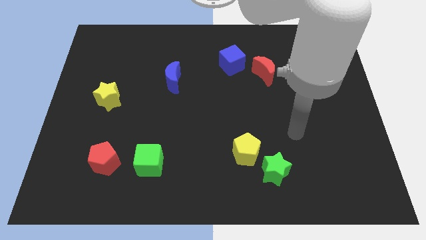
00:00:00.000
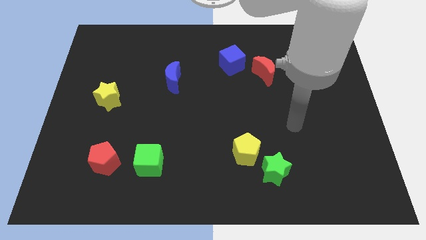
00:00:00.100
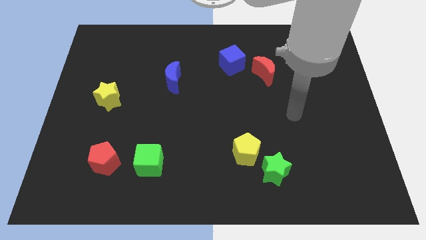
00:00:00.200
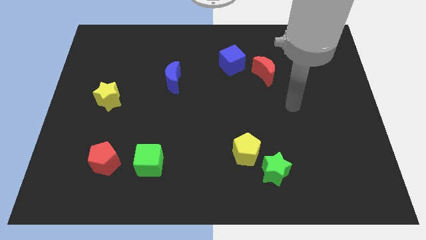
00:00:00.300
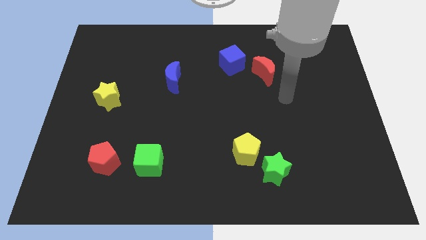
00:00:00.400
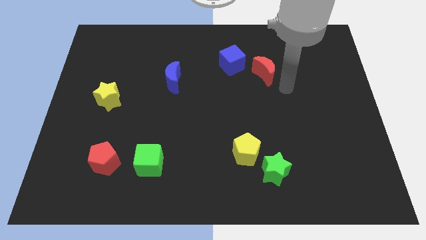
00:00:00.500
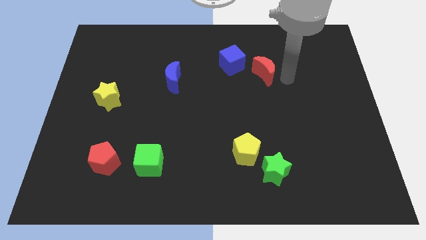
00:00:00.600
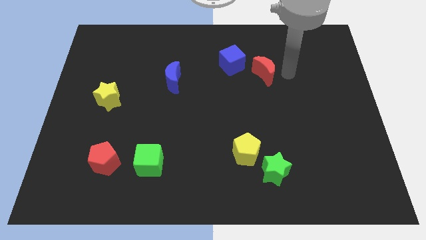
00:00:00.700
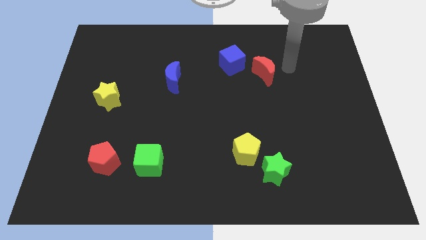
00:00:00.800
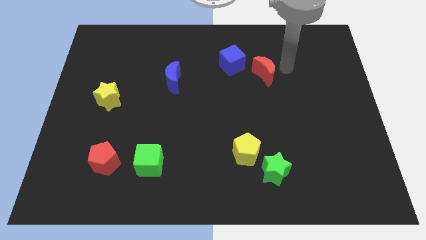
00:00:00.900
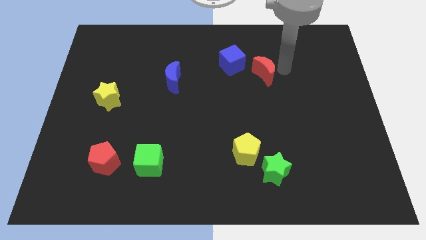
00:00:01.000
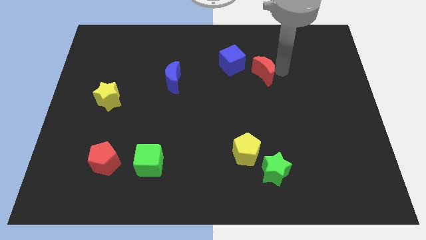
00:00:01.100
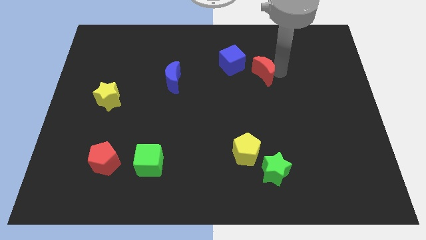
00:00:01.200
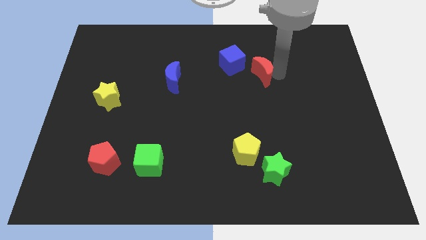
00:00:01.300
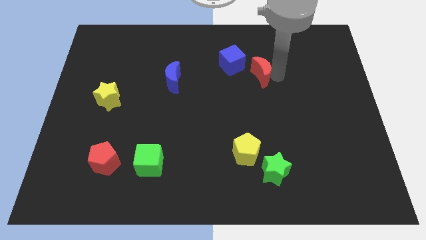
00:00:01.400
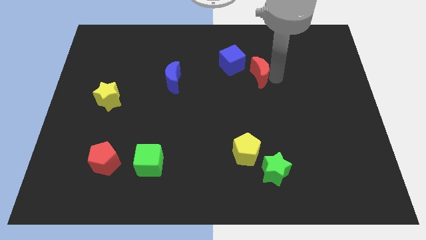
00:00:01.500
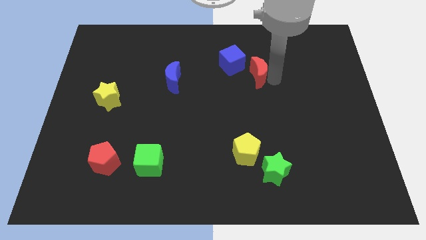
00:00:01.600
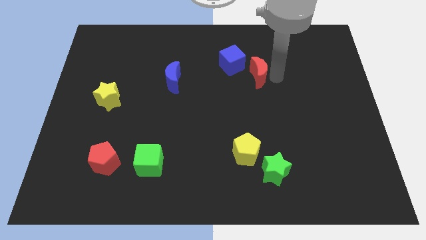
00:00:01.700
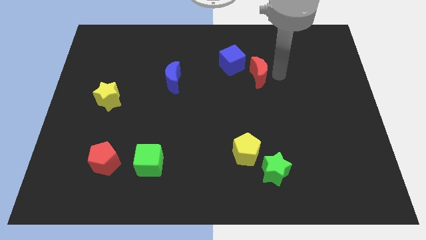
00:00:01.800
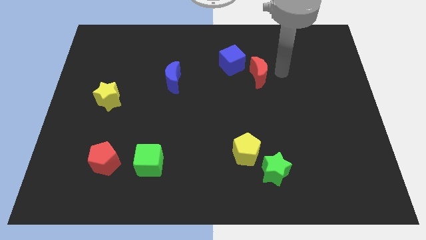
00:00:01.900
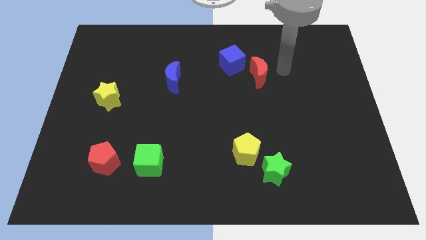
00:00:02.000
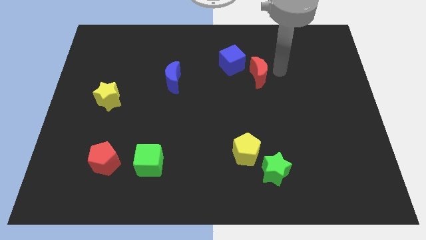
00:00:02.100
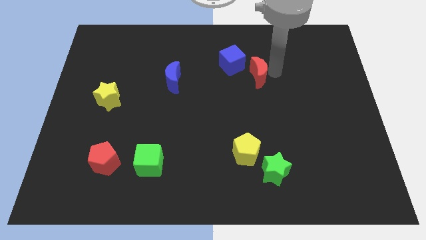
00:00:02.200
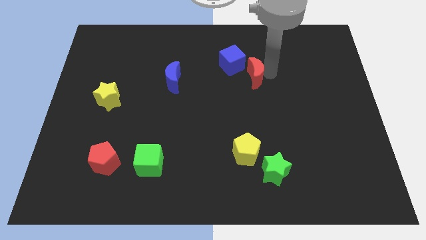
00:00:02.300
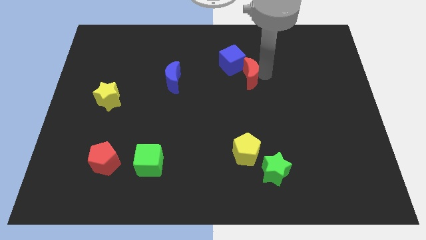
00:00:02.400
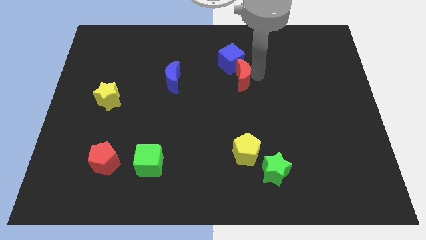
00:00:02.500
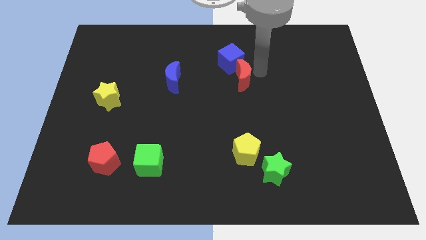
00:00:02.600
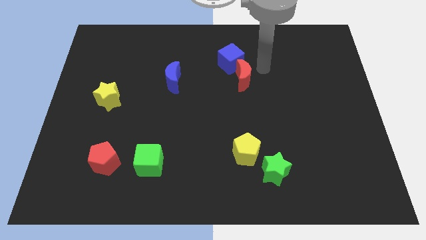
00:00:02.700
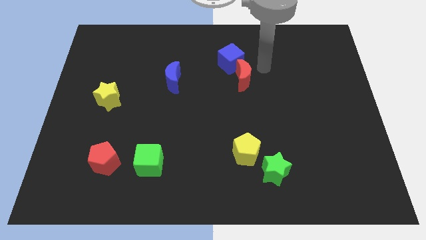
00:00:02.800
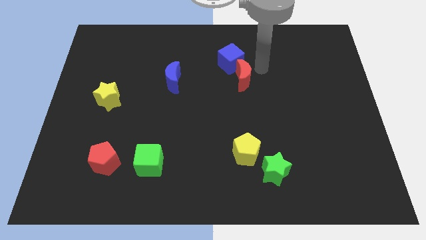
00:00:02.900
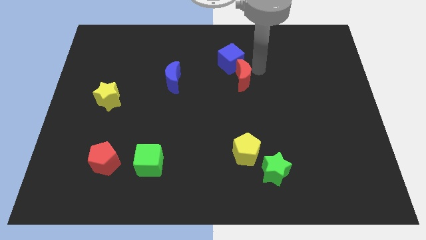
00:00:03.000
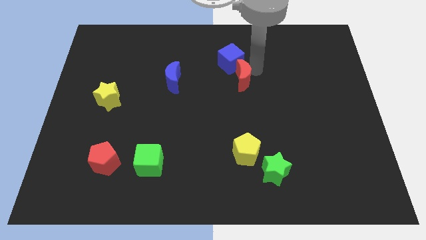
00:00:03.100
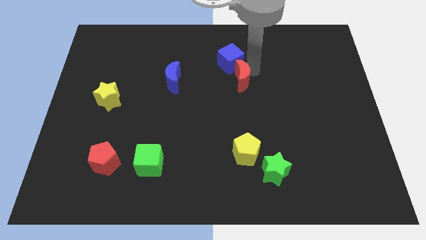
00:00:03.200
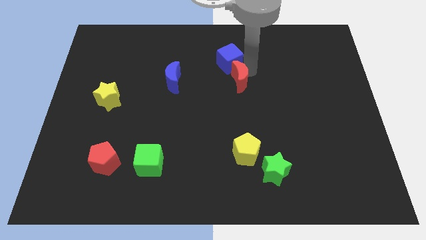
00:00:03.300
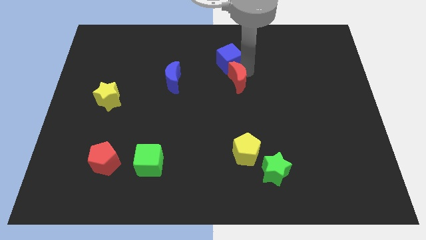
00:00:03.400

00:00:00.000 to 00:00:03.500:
slightly move the red moon to the left

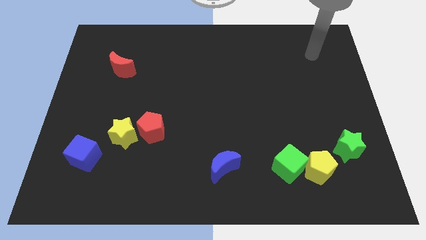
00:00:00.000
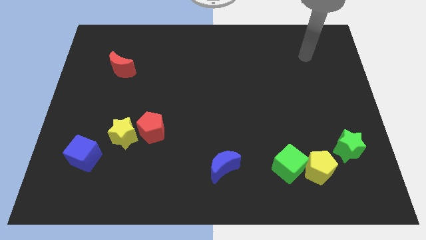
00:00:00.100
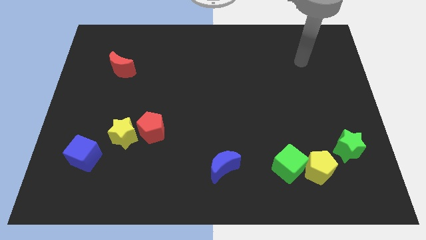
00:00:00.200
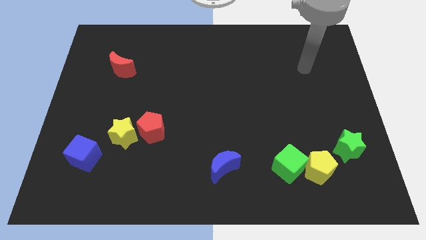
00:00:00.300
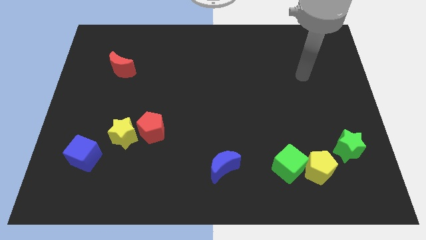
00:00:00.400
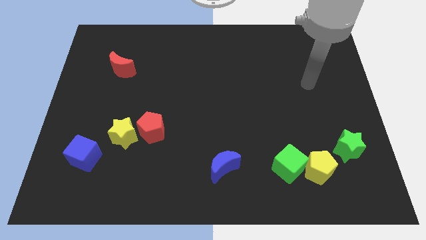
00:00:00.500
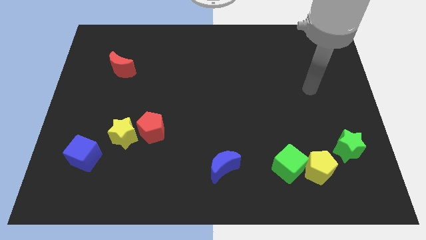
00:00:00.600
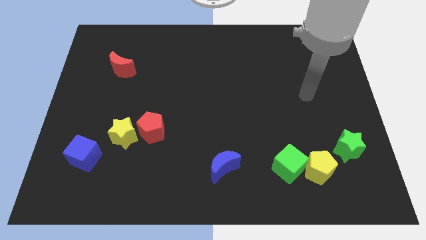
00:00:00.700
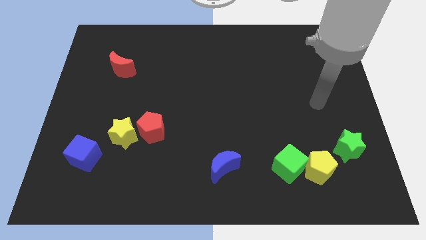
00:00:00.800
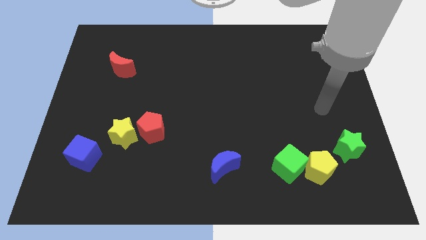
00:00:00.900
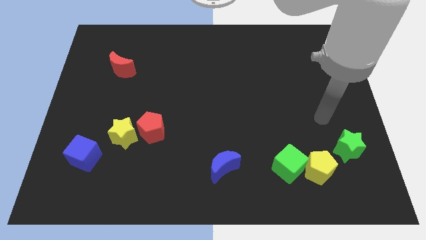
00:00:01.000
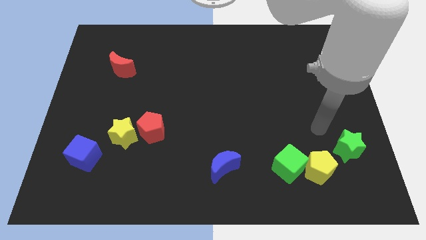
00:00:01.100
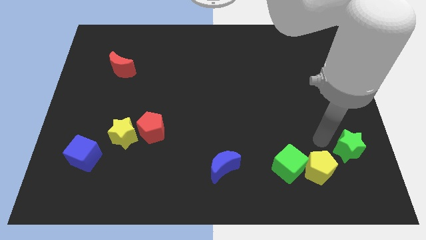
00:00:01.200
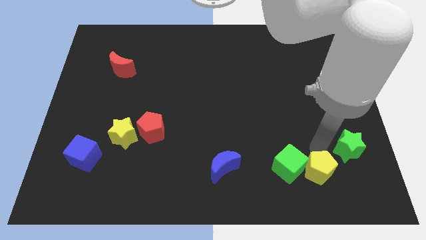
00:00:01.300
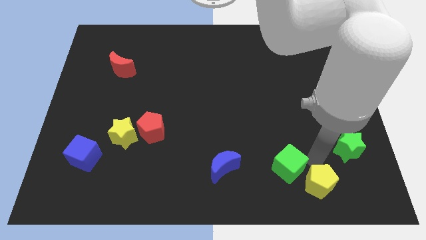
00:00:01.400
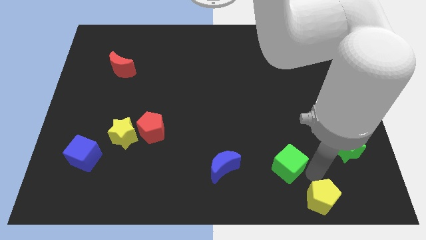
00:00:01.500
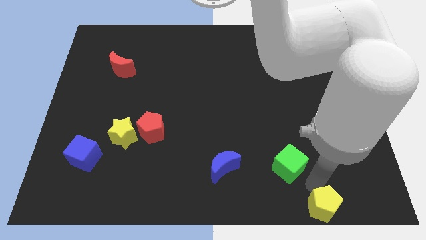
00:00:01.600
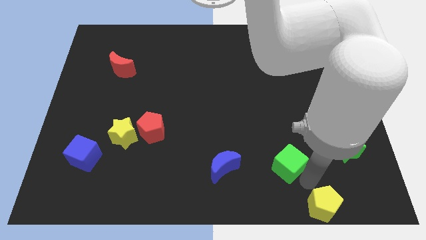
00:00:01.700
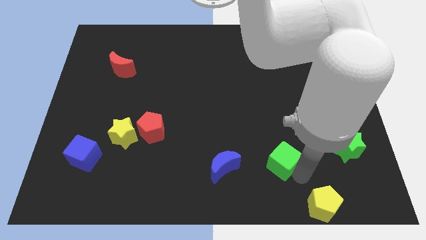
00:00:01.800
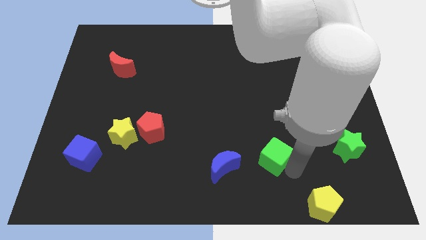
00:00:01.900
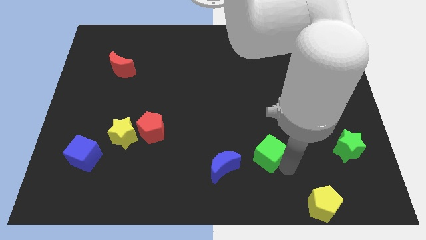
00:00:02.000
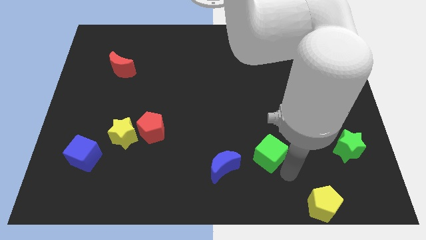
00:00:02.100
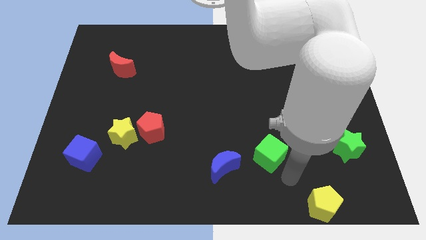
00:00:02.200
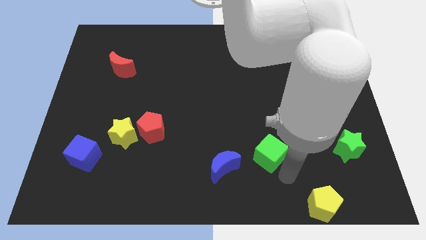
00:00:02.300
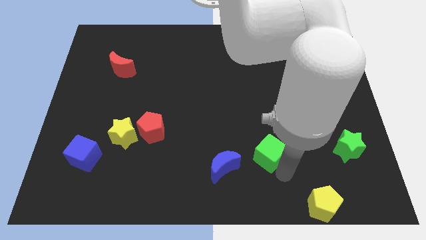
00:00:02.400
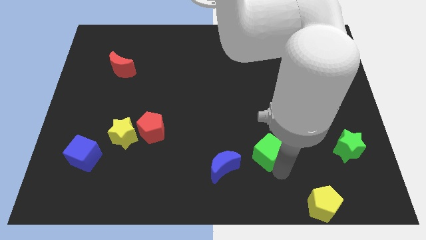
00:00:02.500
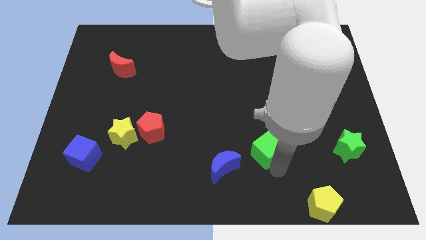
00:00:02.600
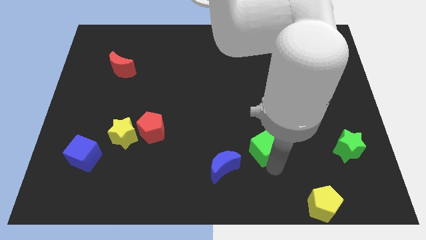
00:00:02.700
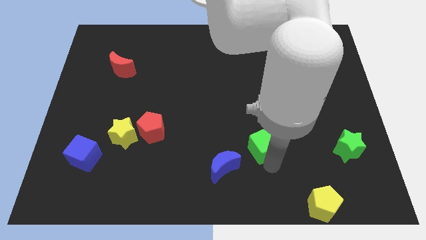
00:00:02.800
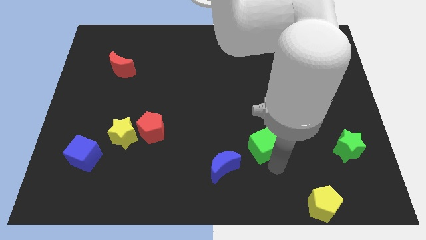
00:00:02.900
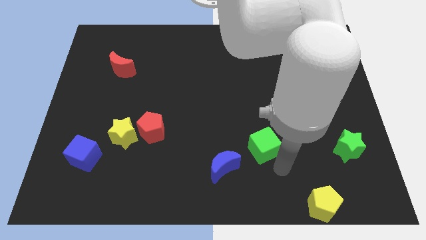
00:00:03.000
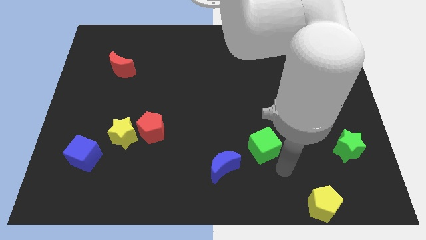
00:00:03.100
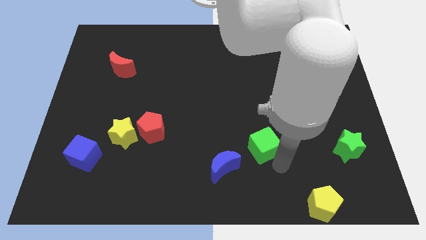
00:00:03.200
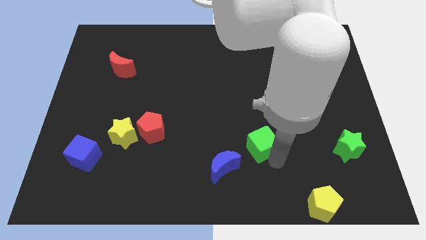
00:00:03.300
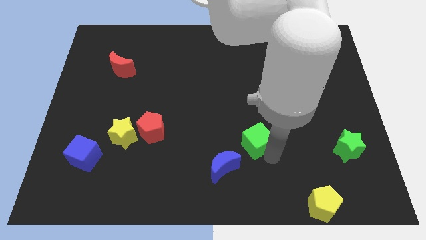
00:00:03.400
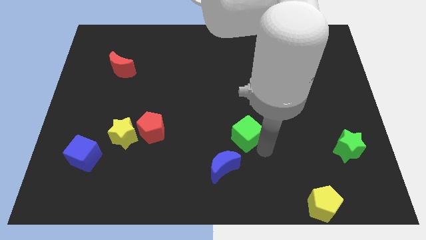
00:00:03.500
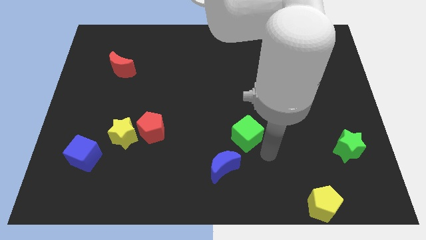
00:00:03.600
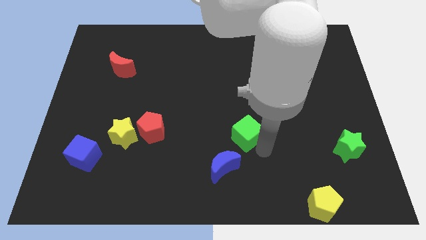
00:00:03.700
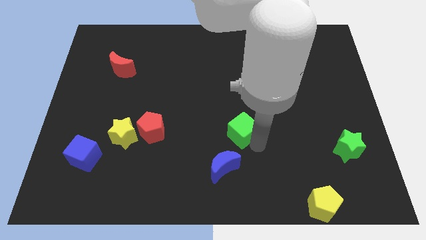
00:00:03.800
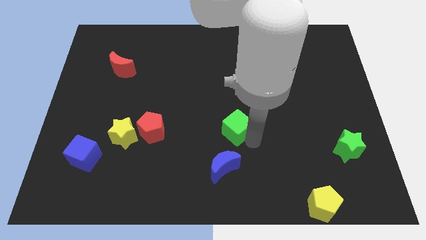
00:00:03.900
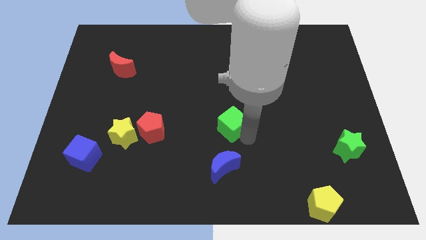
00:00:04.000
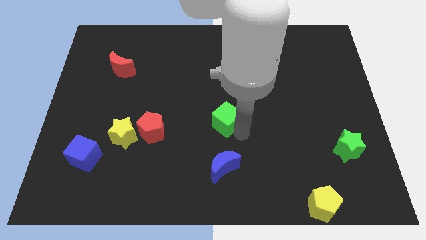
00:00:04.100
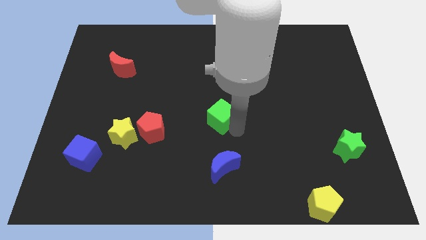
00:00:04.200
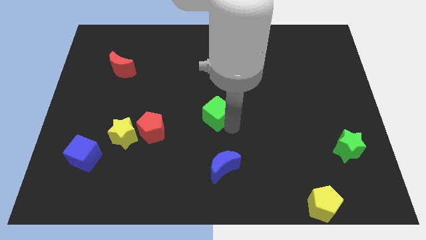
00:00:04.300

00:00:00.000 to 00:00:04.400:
move the green cube up and to the left
